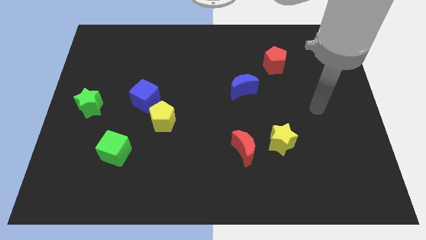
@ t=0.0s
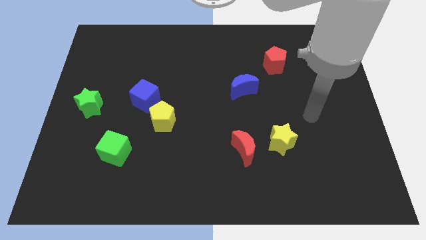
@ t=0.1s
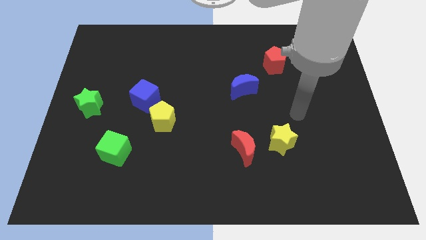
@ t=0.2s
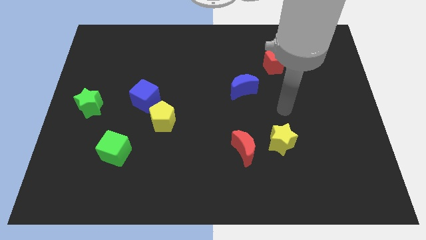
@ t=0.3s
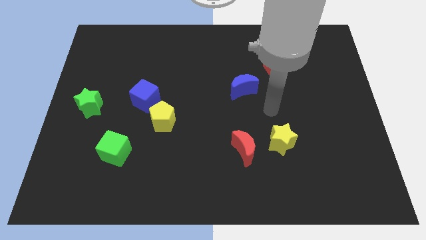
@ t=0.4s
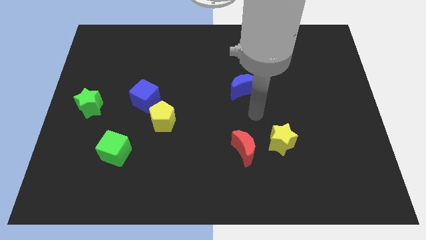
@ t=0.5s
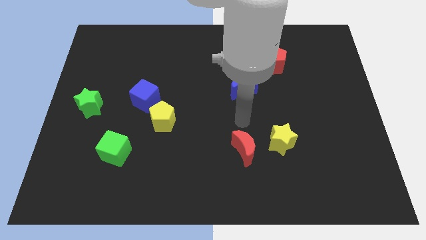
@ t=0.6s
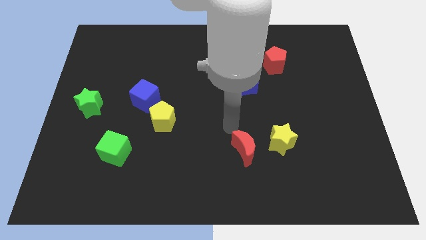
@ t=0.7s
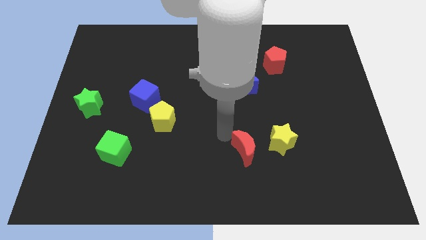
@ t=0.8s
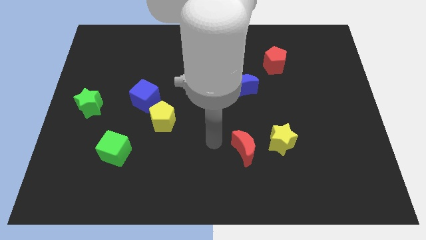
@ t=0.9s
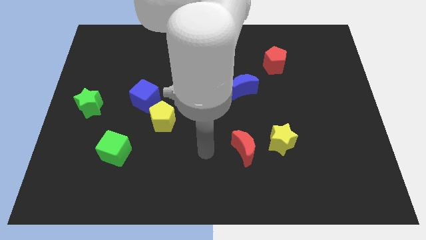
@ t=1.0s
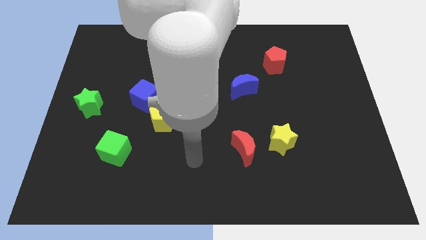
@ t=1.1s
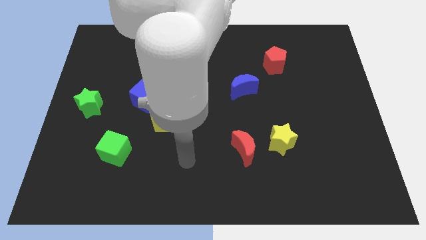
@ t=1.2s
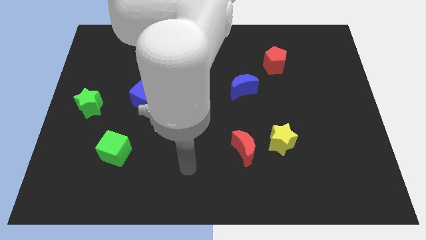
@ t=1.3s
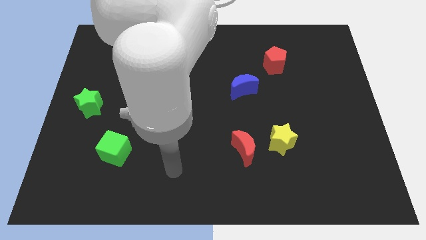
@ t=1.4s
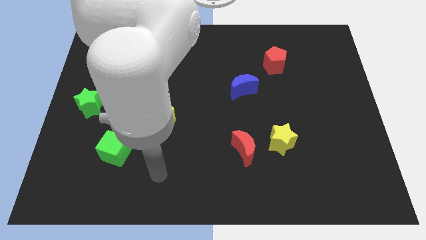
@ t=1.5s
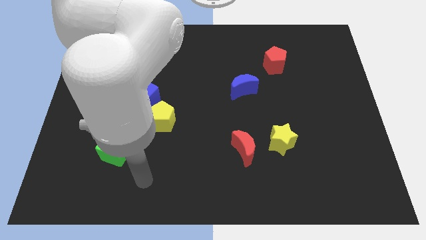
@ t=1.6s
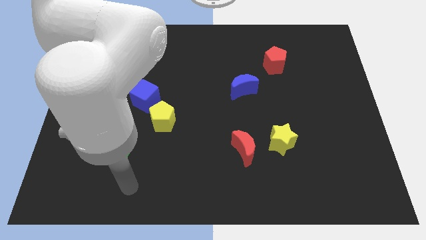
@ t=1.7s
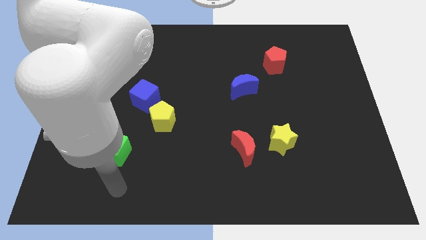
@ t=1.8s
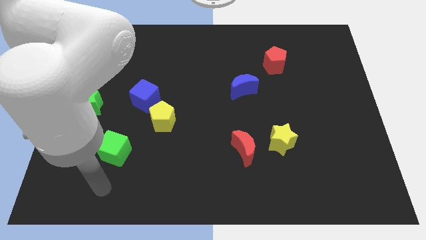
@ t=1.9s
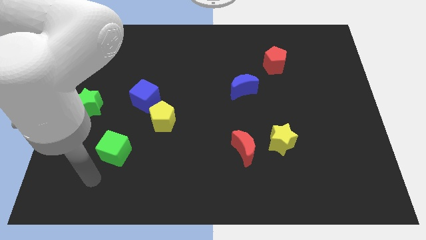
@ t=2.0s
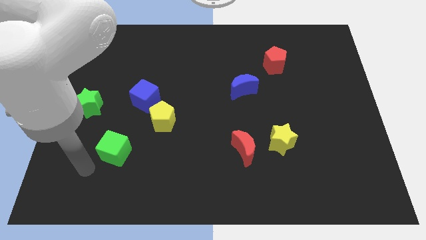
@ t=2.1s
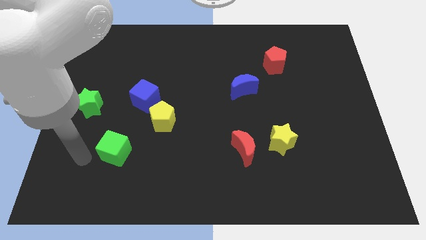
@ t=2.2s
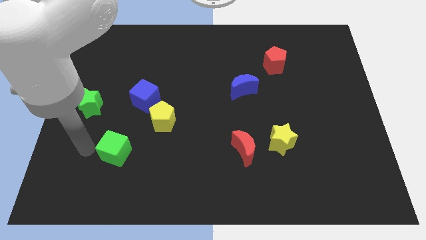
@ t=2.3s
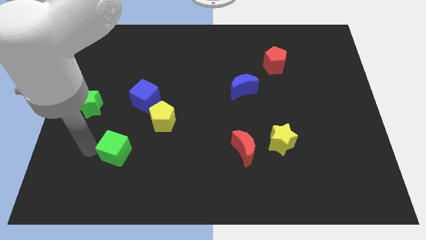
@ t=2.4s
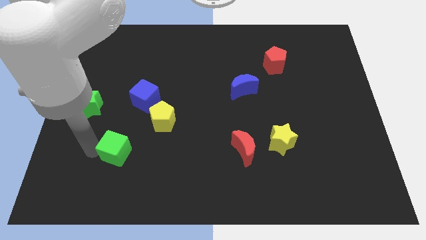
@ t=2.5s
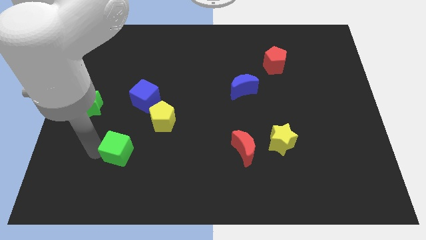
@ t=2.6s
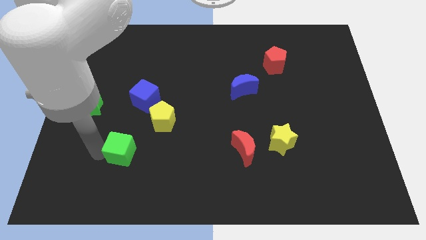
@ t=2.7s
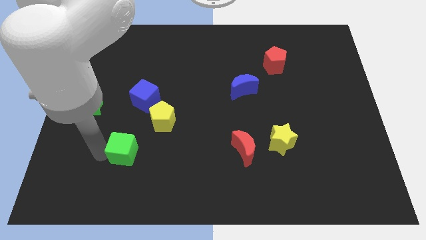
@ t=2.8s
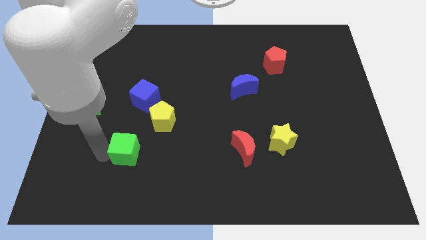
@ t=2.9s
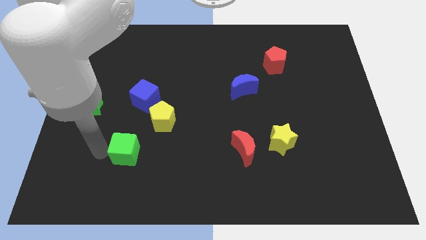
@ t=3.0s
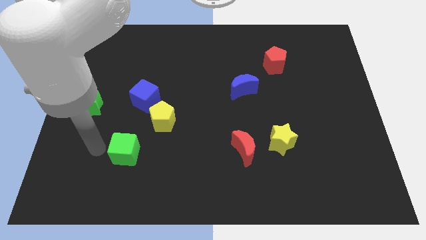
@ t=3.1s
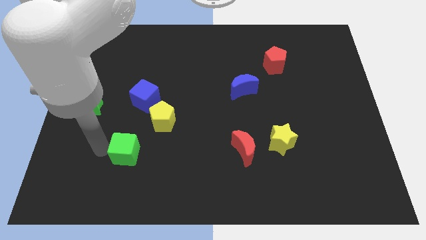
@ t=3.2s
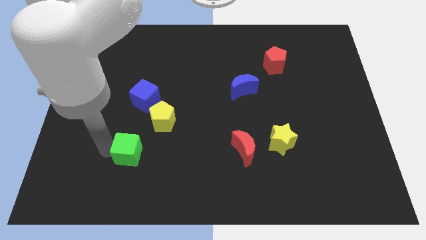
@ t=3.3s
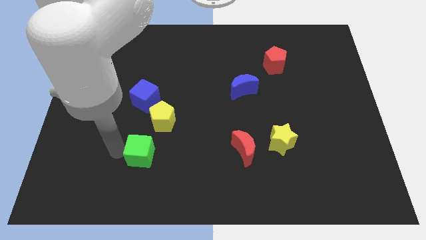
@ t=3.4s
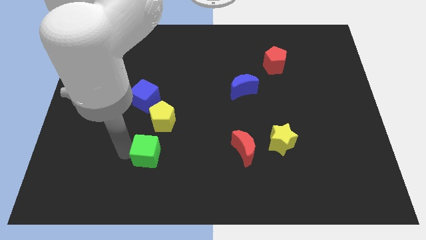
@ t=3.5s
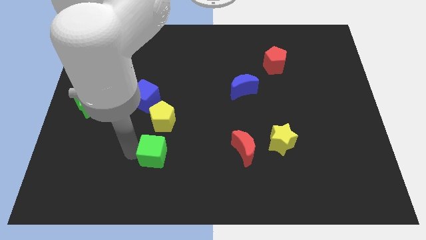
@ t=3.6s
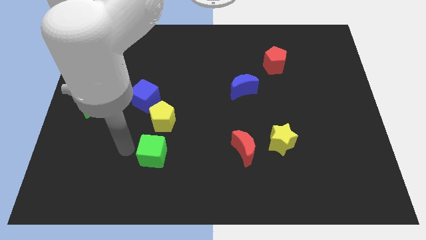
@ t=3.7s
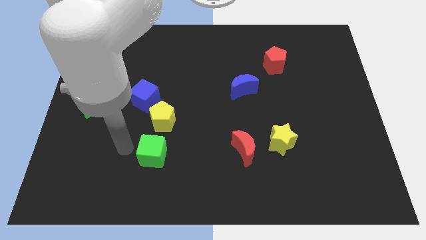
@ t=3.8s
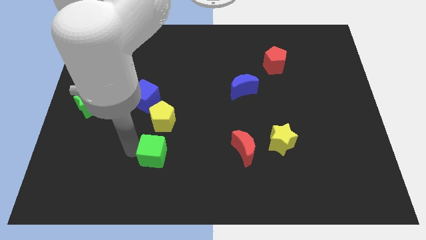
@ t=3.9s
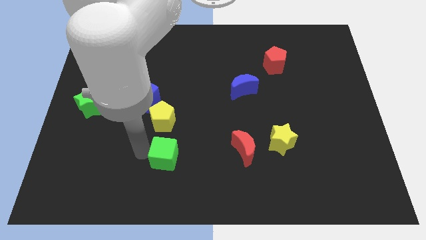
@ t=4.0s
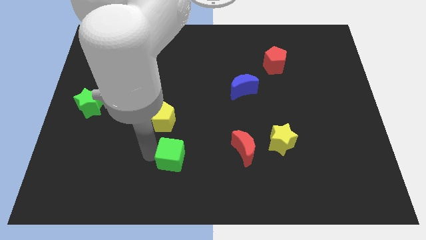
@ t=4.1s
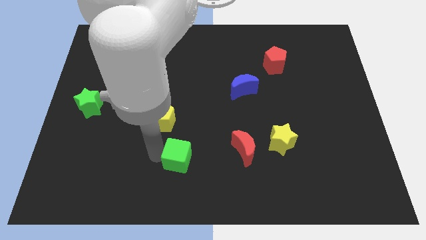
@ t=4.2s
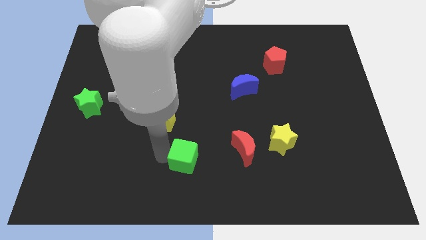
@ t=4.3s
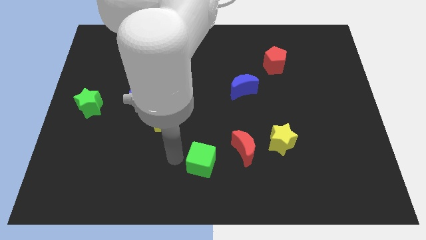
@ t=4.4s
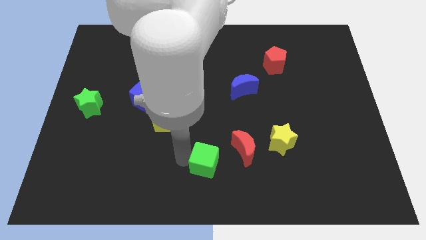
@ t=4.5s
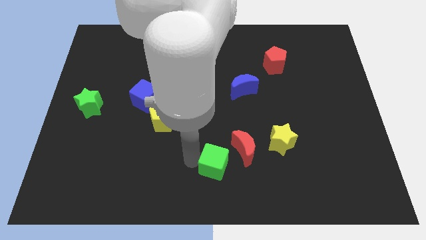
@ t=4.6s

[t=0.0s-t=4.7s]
slide the green cube to the right

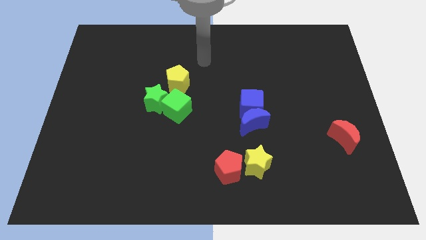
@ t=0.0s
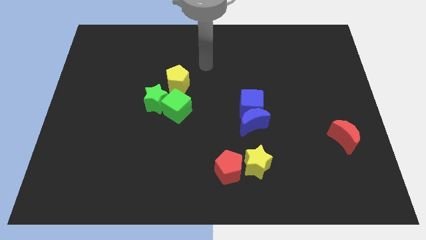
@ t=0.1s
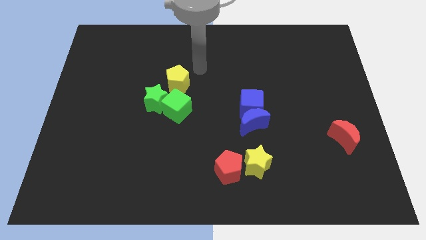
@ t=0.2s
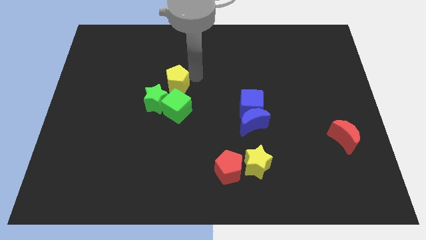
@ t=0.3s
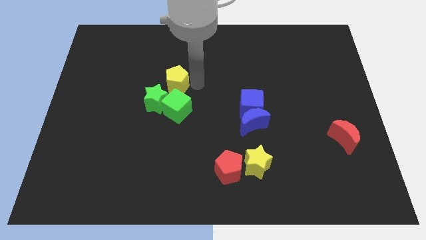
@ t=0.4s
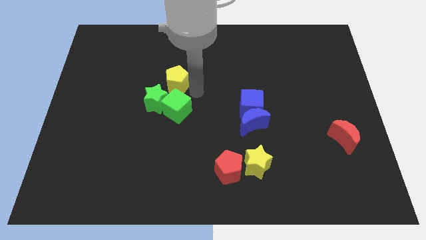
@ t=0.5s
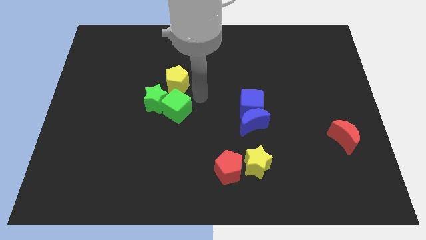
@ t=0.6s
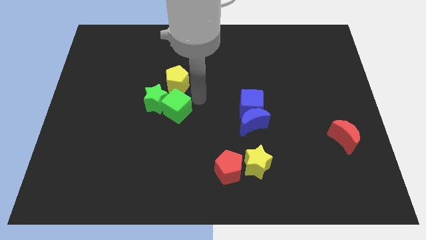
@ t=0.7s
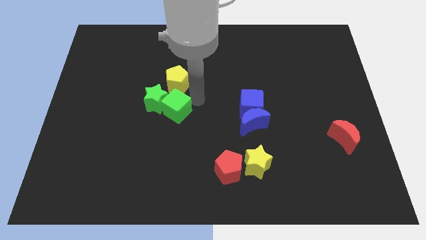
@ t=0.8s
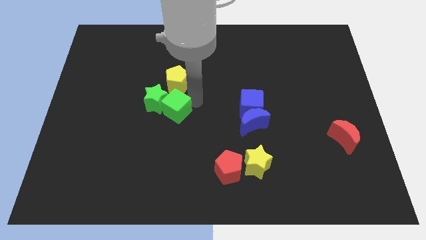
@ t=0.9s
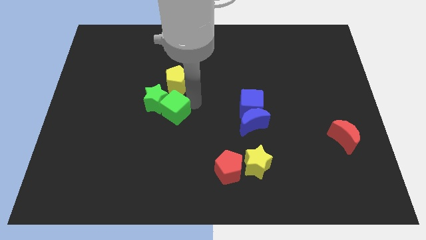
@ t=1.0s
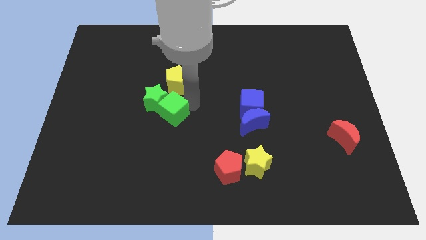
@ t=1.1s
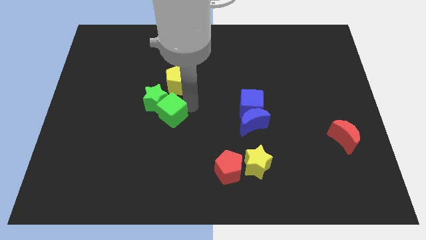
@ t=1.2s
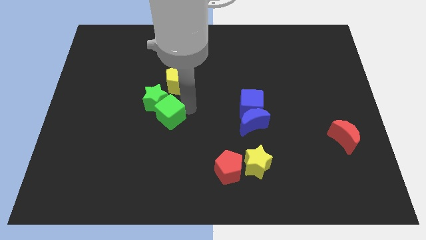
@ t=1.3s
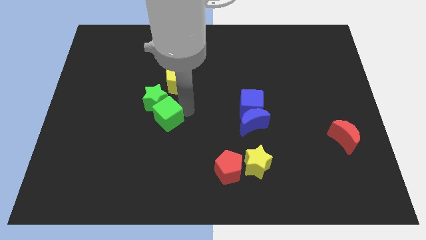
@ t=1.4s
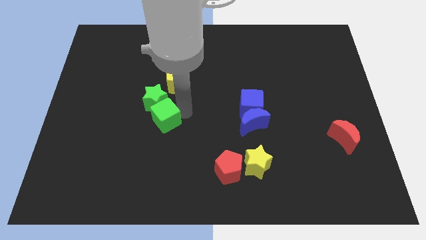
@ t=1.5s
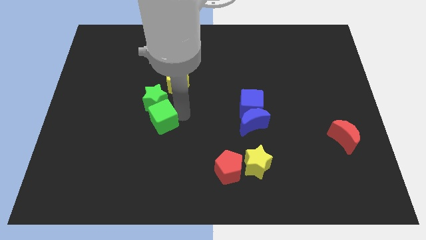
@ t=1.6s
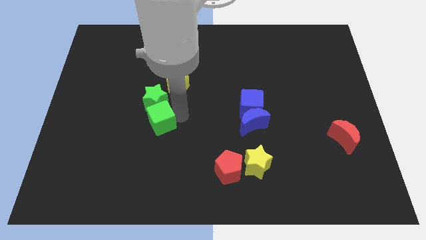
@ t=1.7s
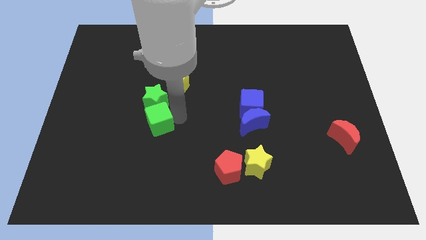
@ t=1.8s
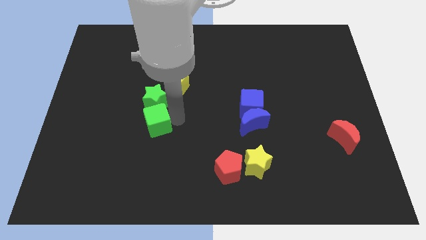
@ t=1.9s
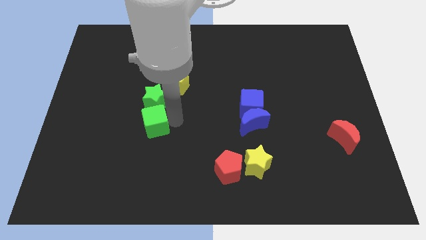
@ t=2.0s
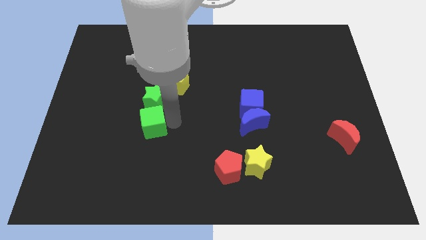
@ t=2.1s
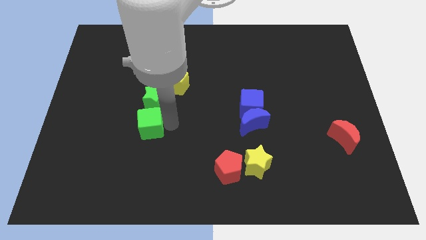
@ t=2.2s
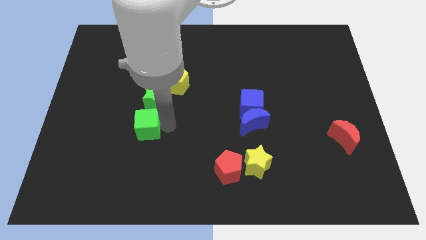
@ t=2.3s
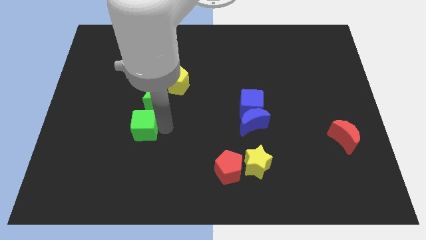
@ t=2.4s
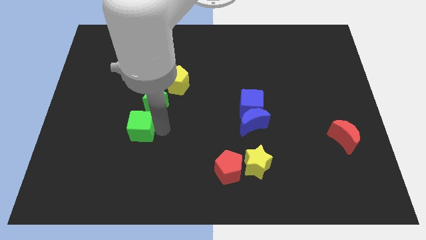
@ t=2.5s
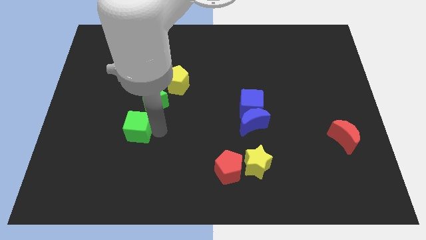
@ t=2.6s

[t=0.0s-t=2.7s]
slightly slide the green cube left

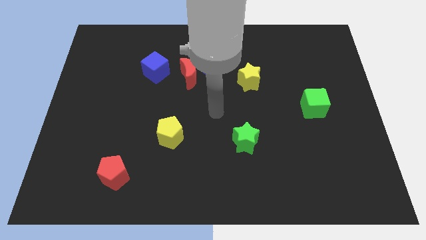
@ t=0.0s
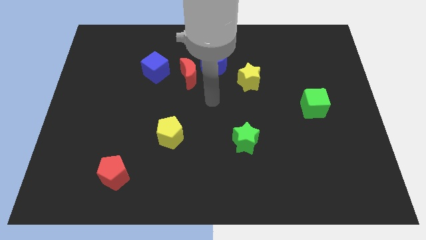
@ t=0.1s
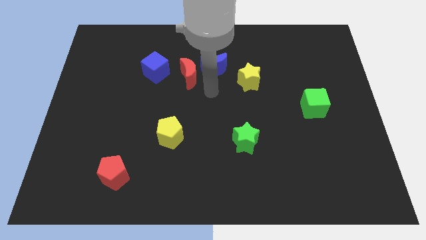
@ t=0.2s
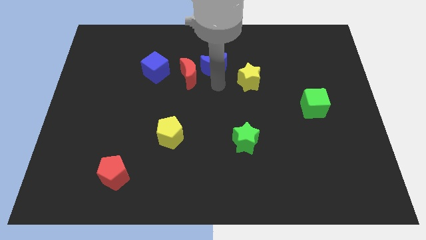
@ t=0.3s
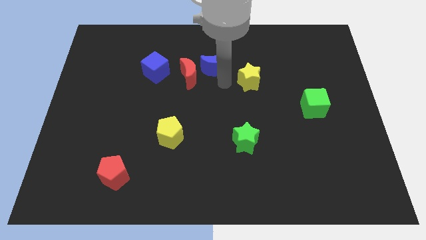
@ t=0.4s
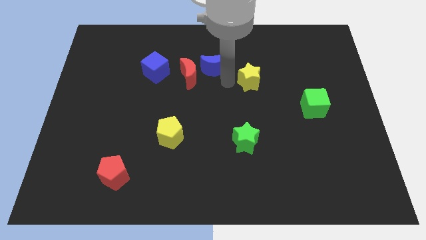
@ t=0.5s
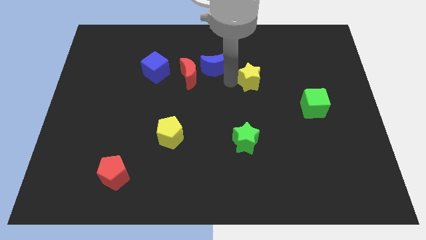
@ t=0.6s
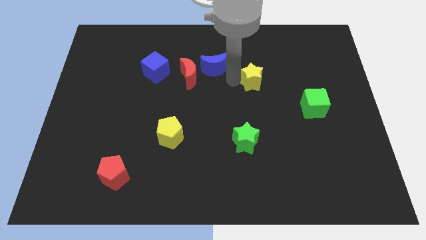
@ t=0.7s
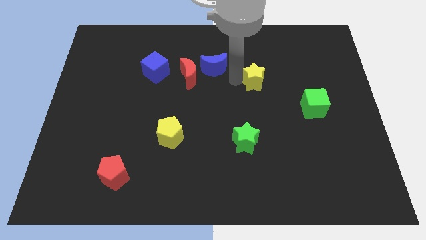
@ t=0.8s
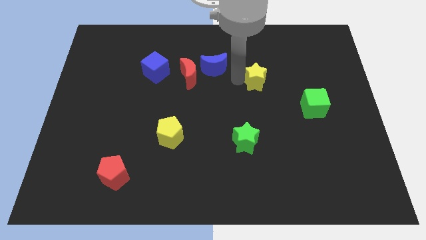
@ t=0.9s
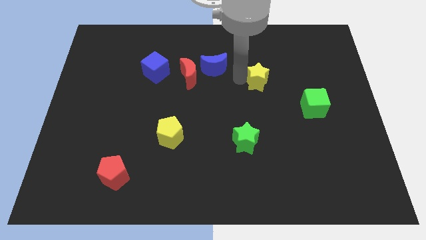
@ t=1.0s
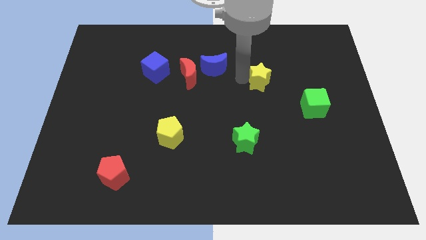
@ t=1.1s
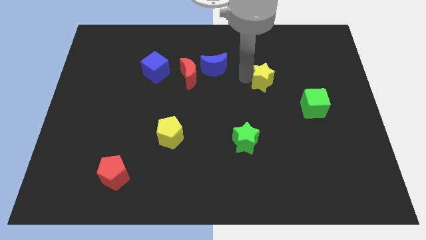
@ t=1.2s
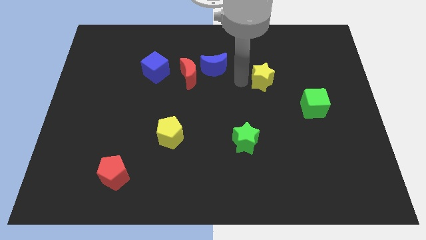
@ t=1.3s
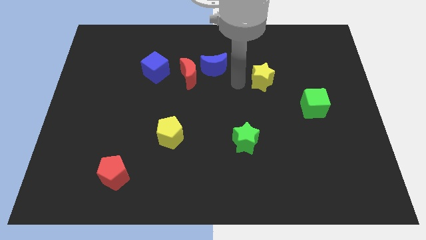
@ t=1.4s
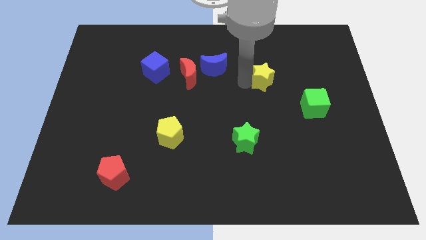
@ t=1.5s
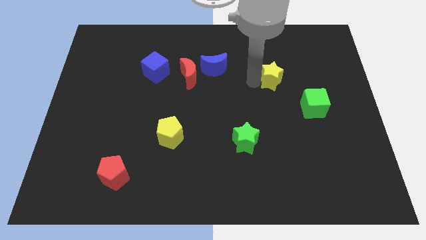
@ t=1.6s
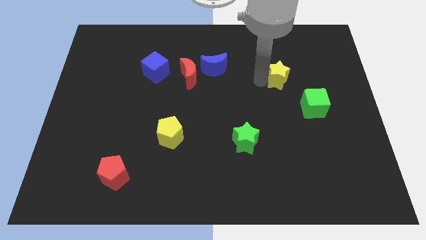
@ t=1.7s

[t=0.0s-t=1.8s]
push the yellow star to the right somewhat
